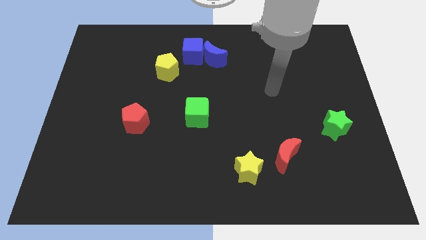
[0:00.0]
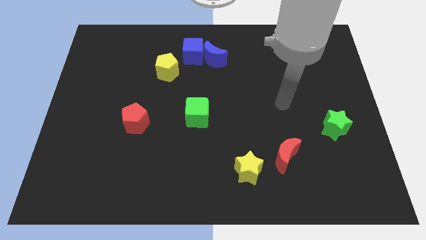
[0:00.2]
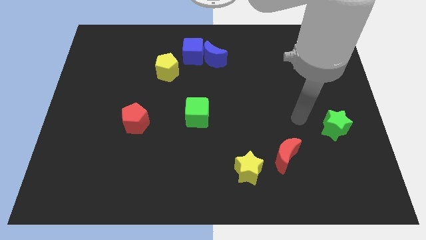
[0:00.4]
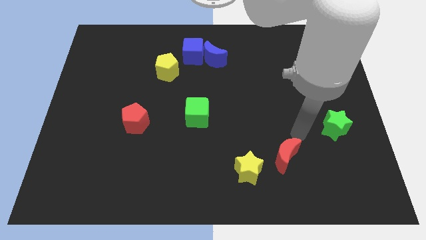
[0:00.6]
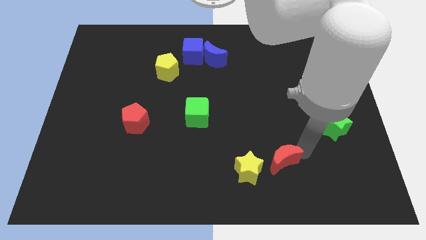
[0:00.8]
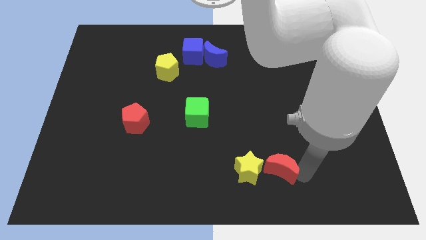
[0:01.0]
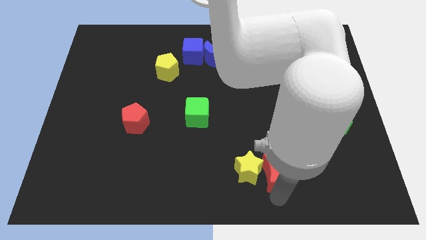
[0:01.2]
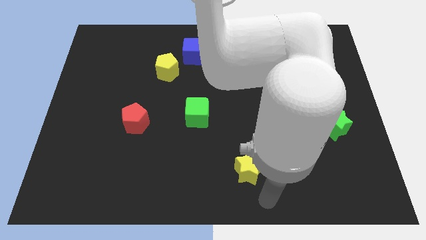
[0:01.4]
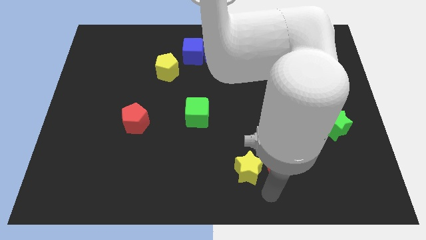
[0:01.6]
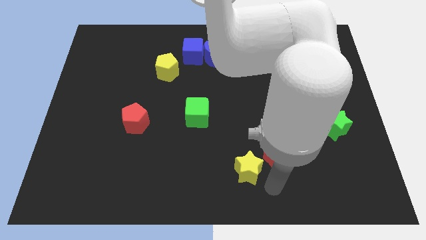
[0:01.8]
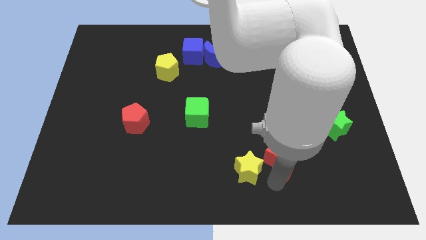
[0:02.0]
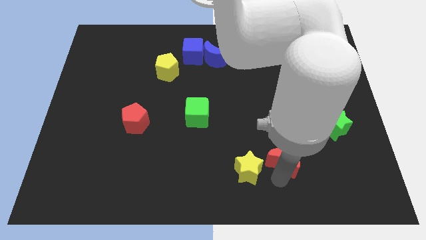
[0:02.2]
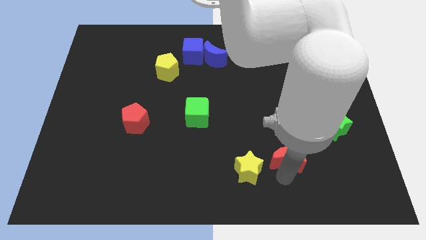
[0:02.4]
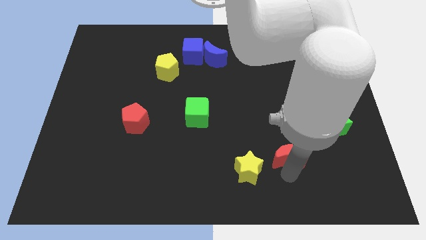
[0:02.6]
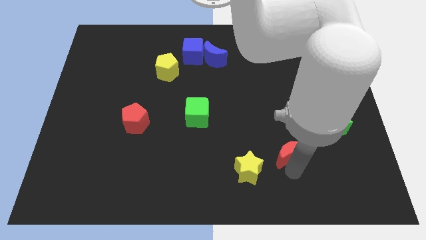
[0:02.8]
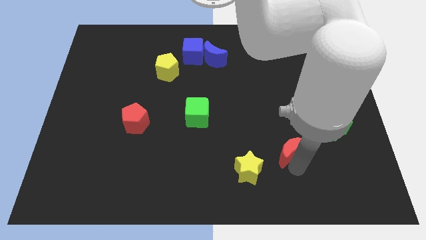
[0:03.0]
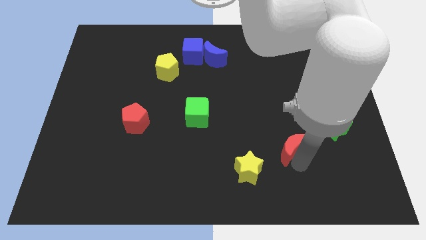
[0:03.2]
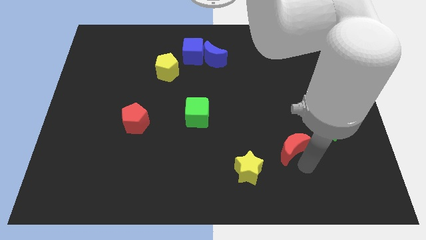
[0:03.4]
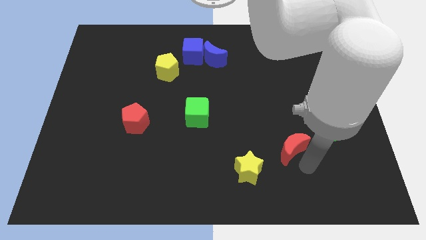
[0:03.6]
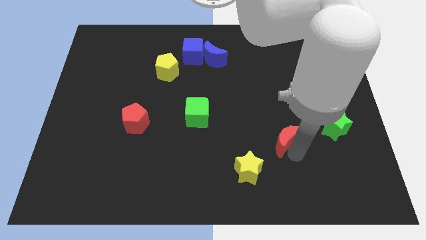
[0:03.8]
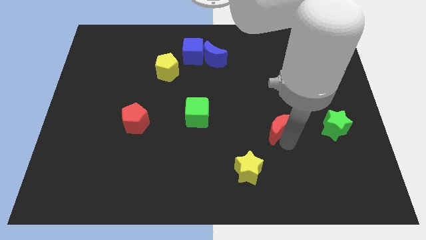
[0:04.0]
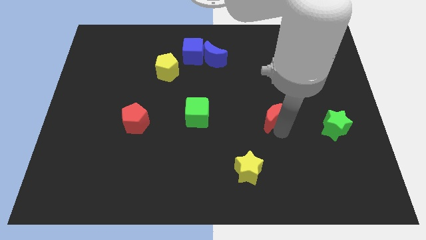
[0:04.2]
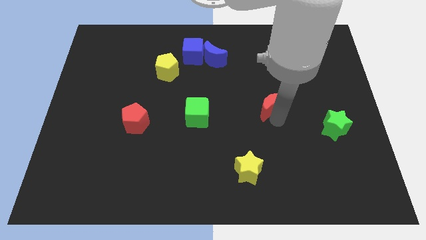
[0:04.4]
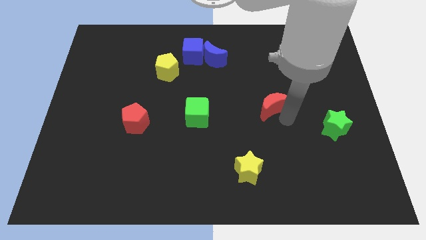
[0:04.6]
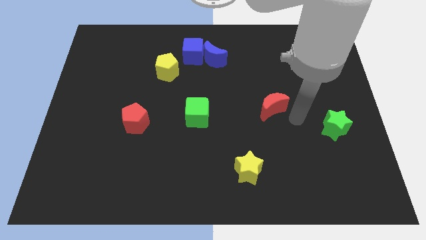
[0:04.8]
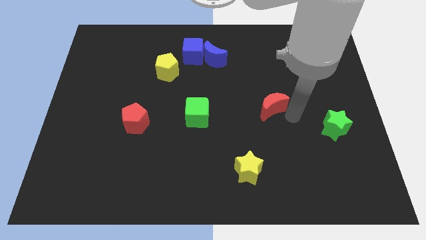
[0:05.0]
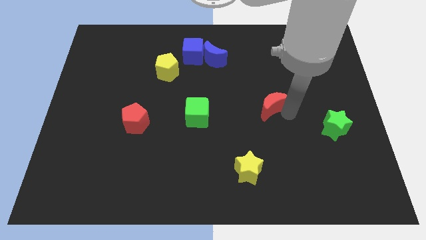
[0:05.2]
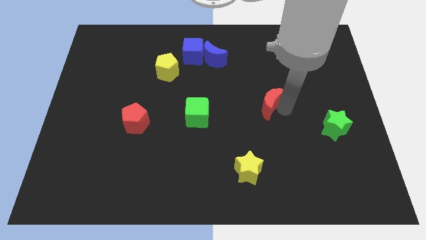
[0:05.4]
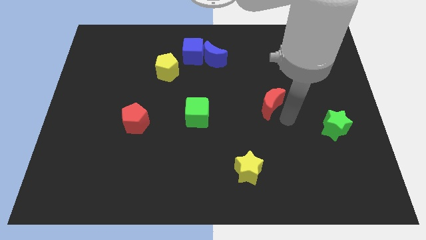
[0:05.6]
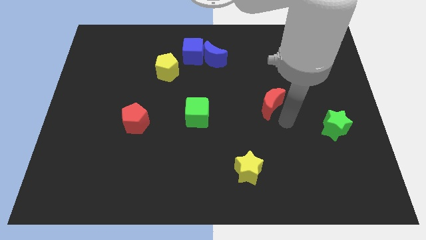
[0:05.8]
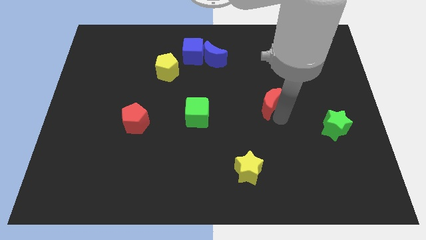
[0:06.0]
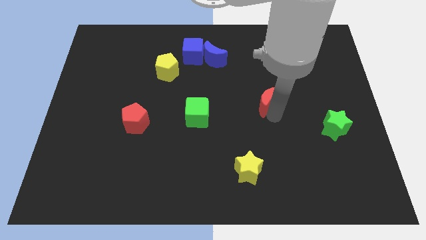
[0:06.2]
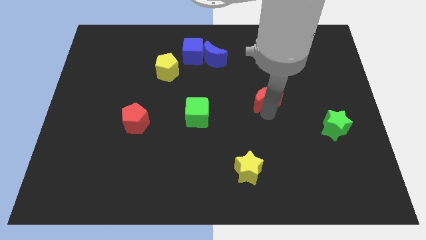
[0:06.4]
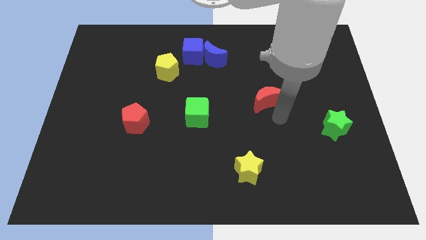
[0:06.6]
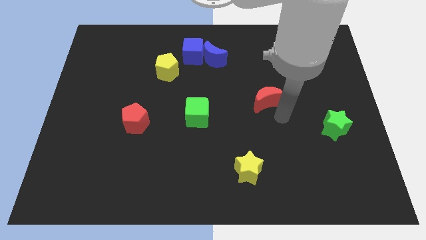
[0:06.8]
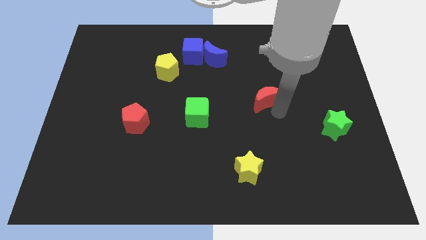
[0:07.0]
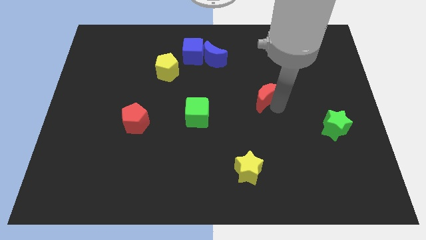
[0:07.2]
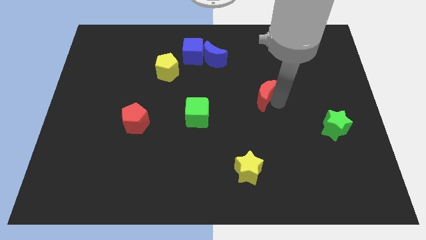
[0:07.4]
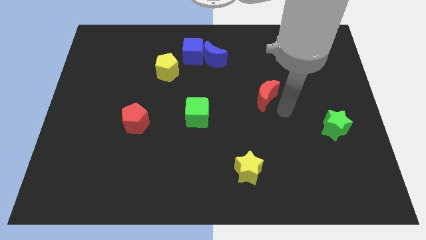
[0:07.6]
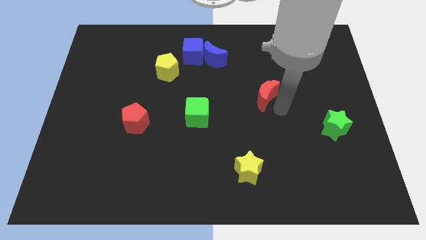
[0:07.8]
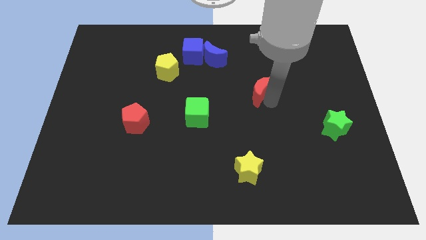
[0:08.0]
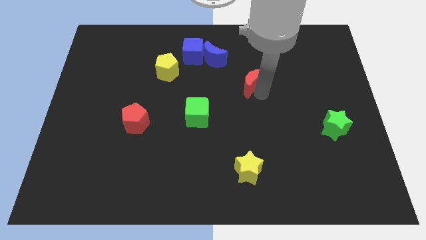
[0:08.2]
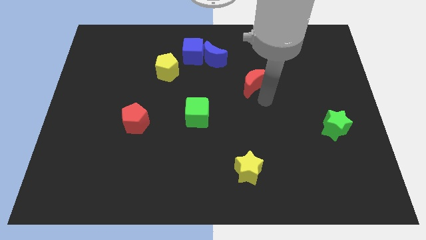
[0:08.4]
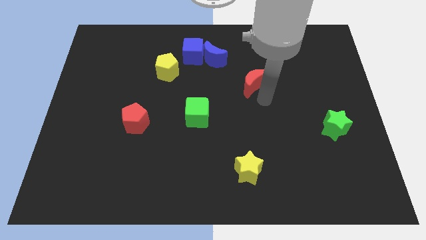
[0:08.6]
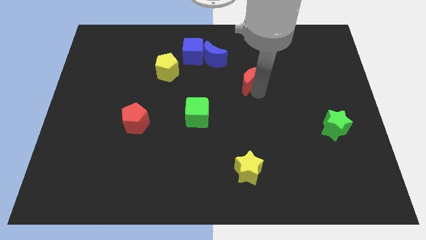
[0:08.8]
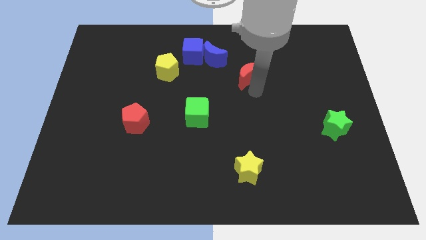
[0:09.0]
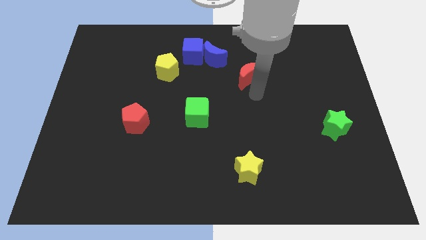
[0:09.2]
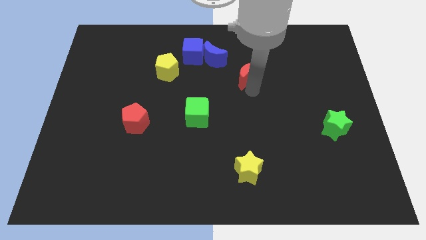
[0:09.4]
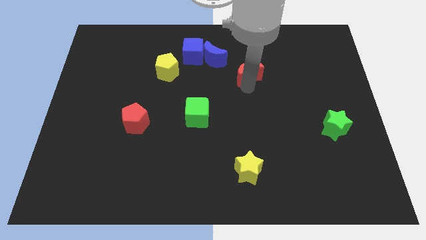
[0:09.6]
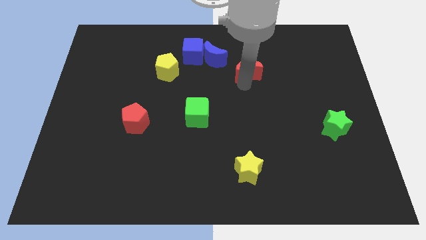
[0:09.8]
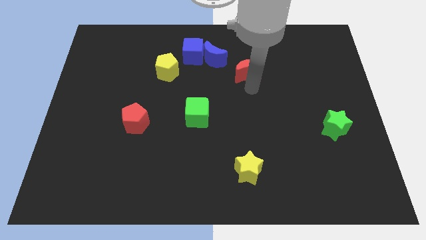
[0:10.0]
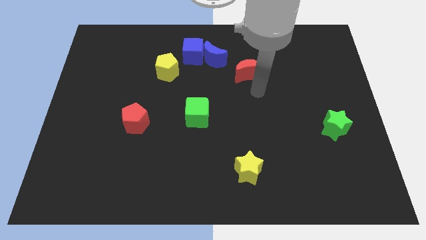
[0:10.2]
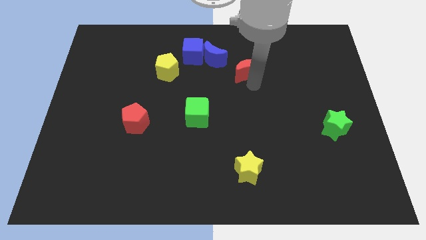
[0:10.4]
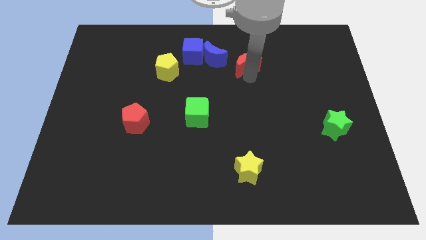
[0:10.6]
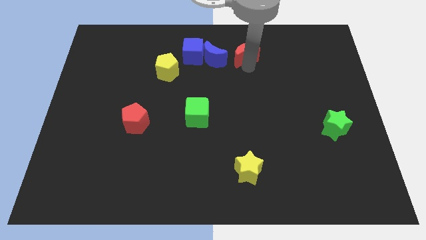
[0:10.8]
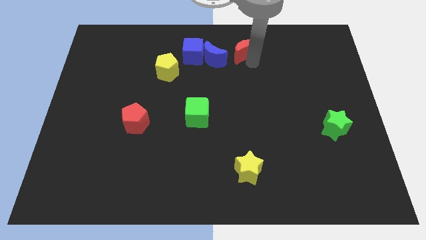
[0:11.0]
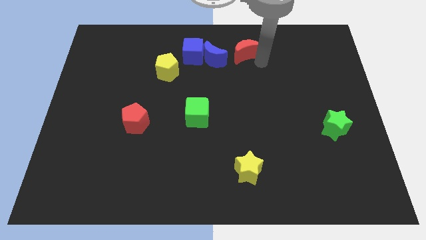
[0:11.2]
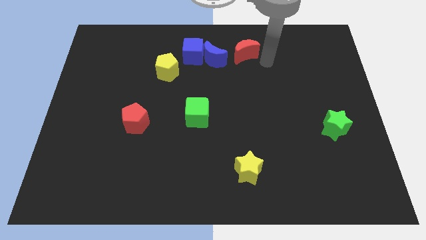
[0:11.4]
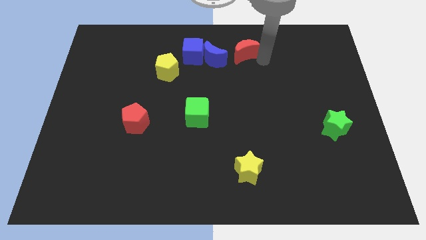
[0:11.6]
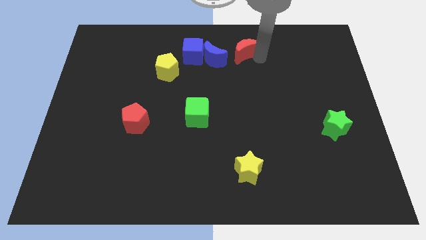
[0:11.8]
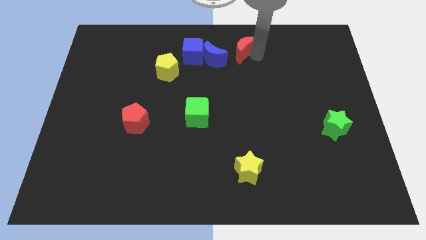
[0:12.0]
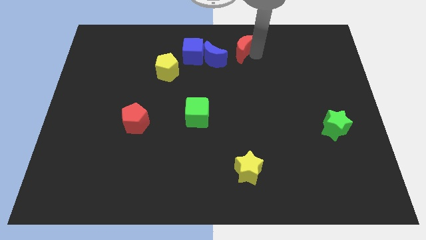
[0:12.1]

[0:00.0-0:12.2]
slide the red moon to the towards your base
